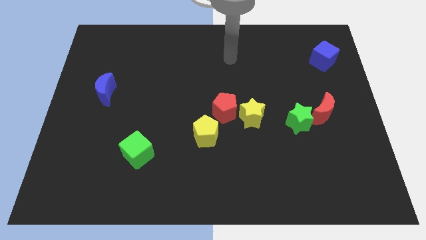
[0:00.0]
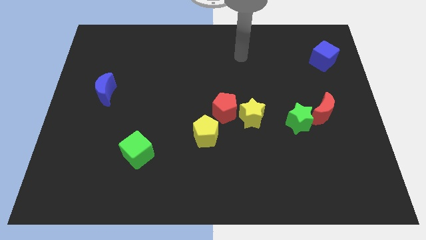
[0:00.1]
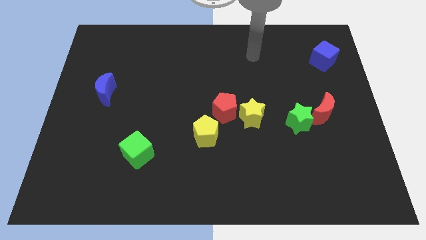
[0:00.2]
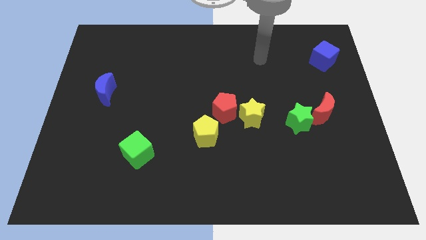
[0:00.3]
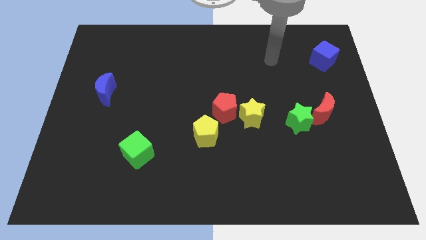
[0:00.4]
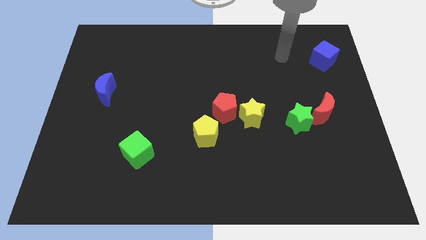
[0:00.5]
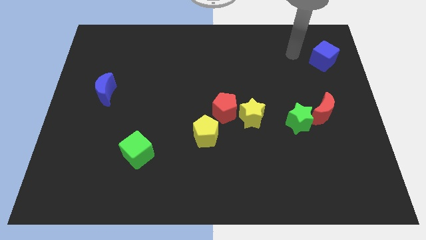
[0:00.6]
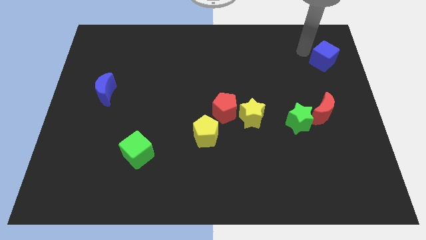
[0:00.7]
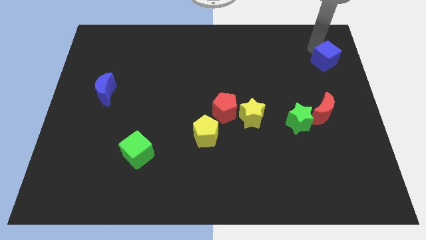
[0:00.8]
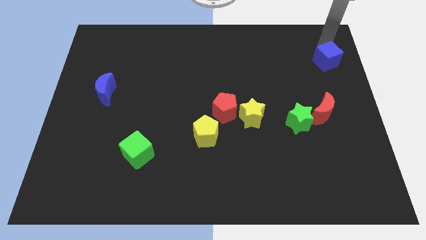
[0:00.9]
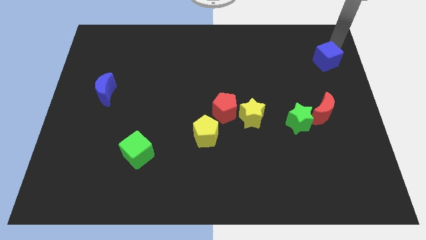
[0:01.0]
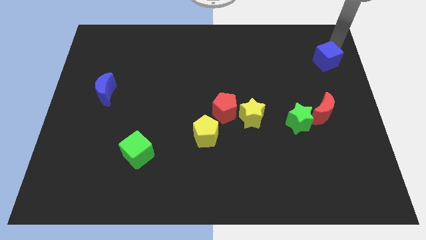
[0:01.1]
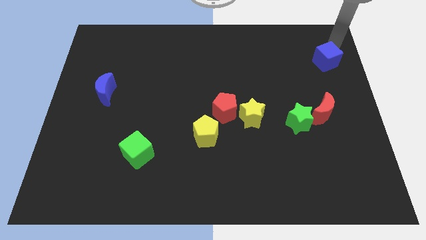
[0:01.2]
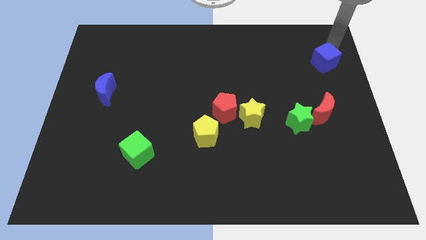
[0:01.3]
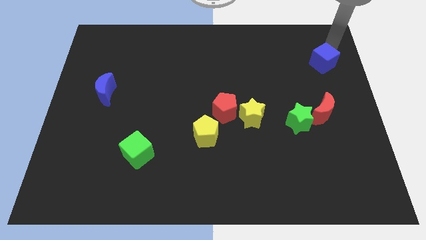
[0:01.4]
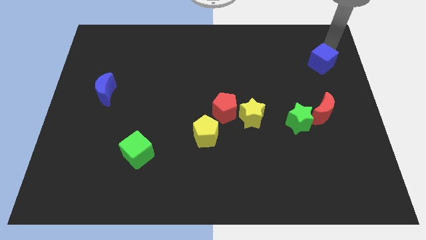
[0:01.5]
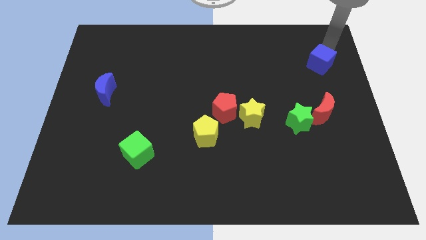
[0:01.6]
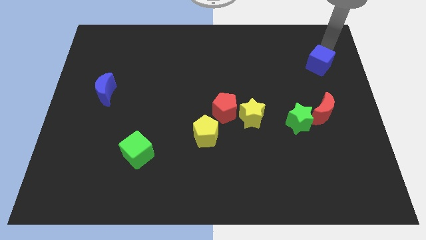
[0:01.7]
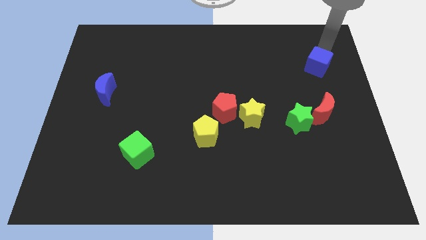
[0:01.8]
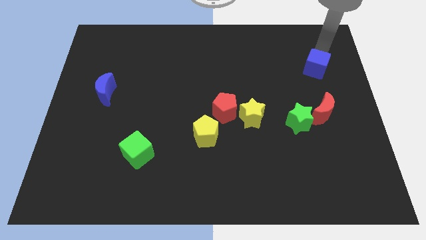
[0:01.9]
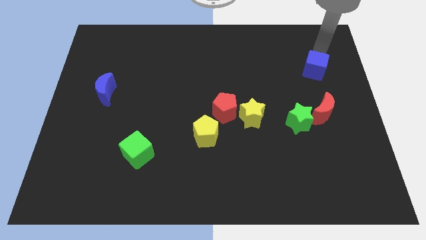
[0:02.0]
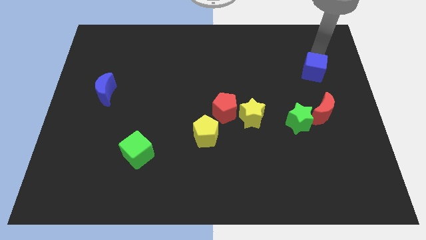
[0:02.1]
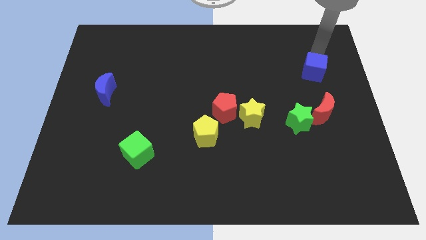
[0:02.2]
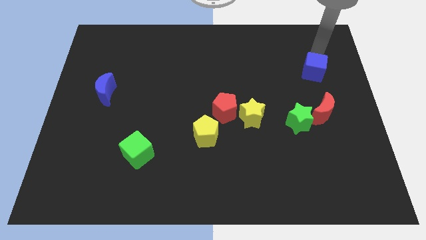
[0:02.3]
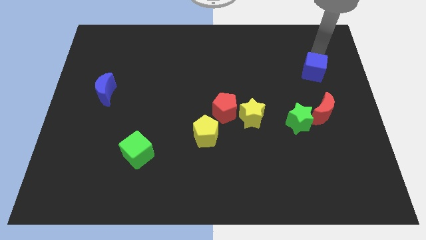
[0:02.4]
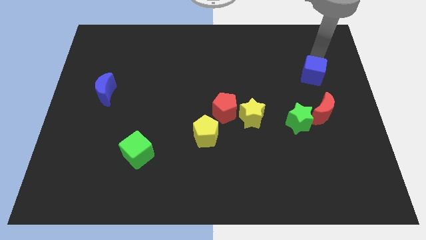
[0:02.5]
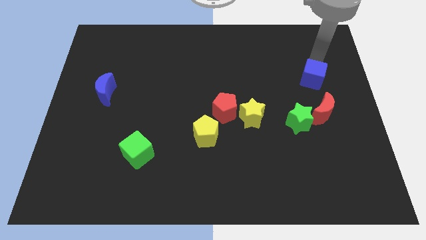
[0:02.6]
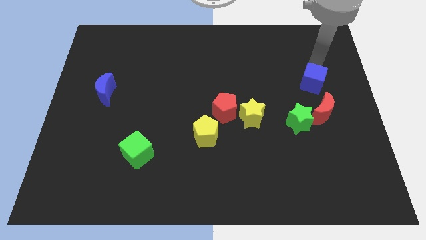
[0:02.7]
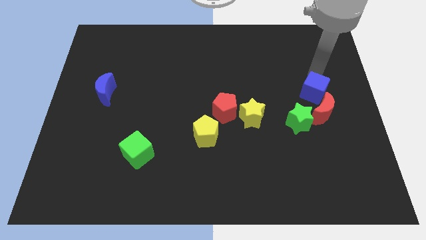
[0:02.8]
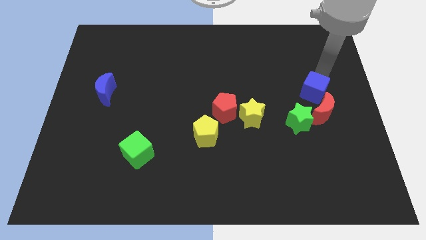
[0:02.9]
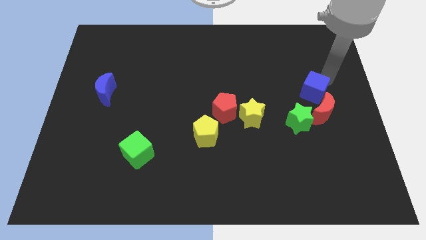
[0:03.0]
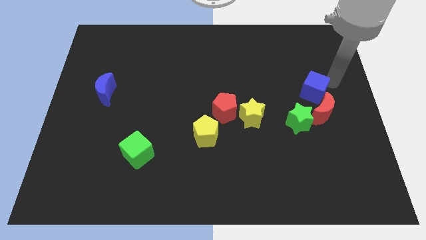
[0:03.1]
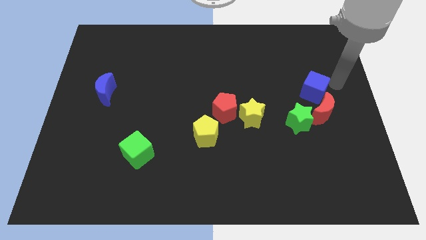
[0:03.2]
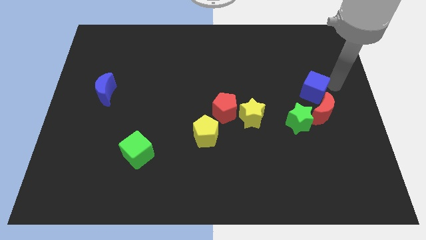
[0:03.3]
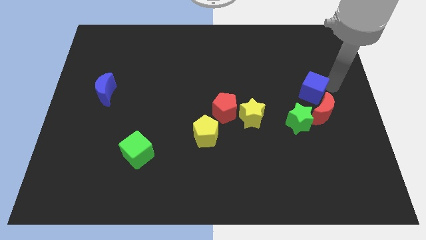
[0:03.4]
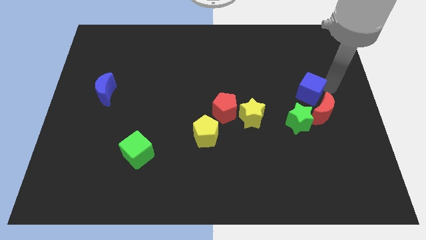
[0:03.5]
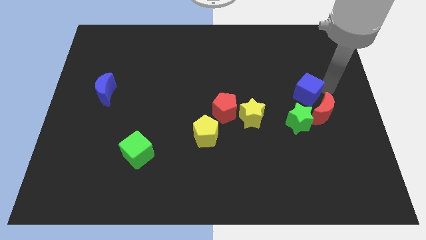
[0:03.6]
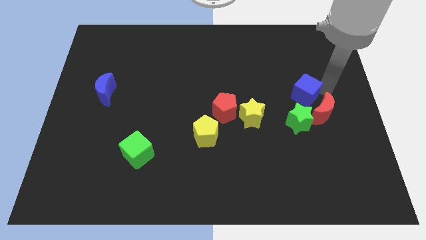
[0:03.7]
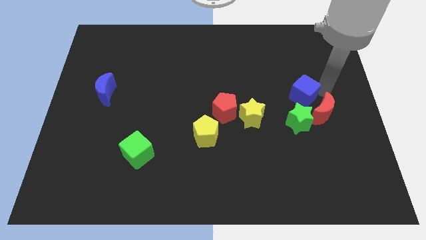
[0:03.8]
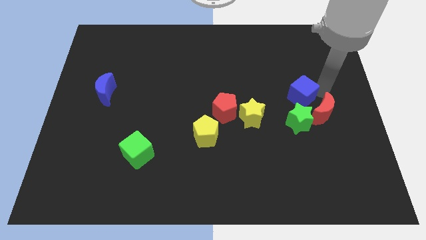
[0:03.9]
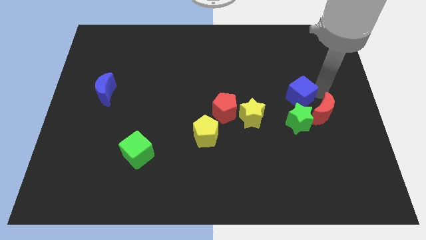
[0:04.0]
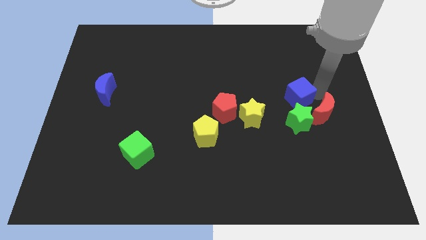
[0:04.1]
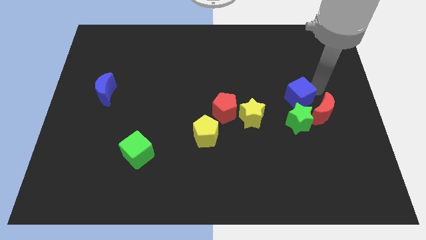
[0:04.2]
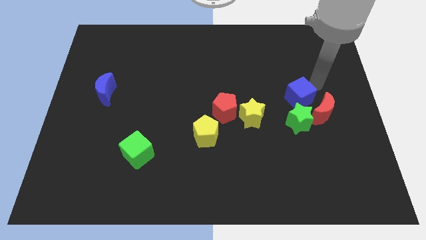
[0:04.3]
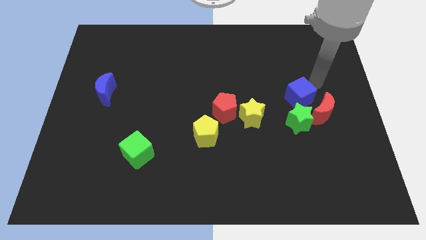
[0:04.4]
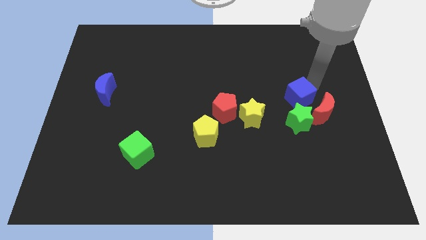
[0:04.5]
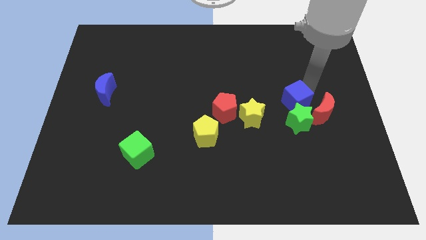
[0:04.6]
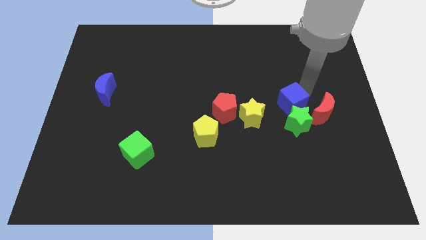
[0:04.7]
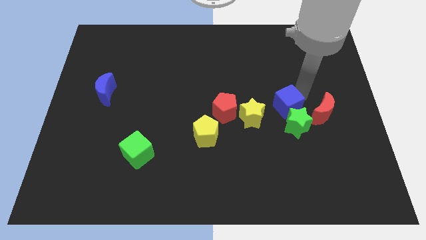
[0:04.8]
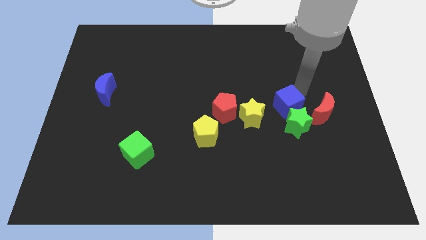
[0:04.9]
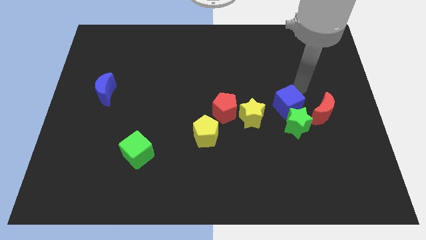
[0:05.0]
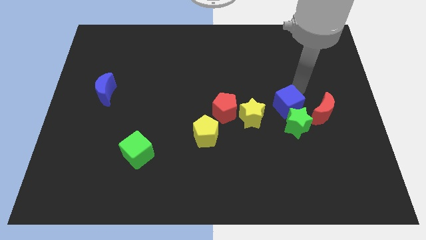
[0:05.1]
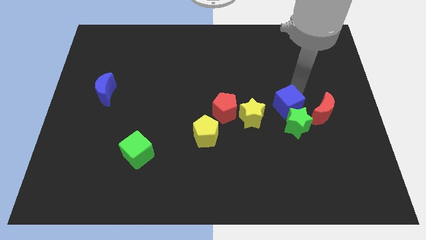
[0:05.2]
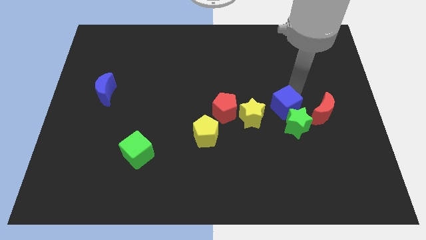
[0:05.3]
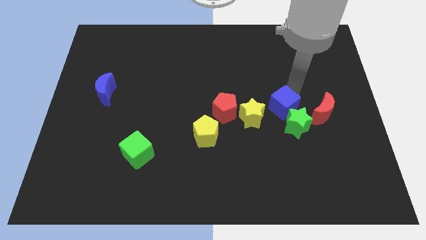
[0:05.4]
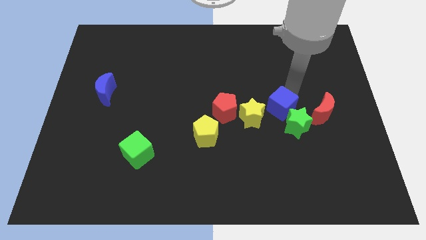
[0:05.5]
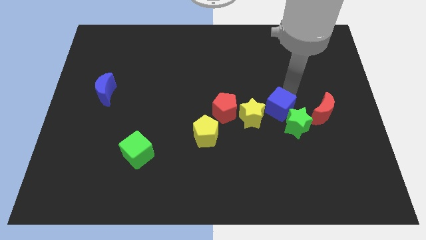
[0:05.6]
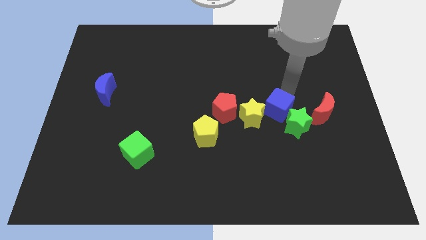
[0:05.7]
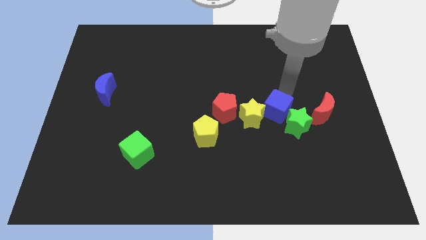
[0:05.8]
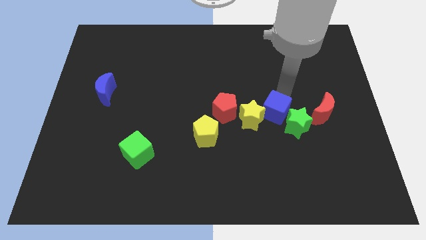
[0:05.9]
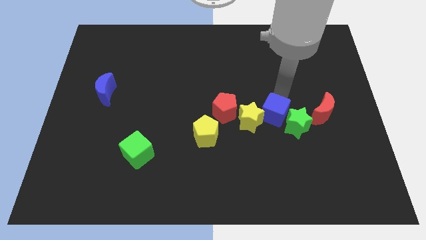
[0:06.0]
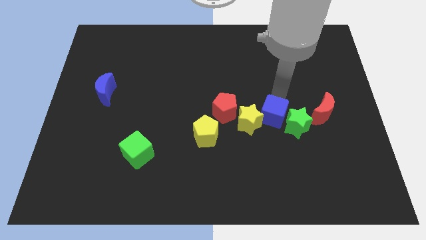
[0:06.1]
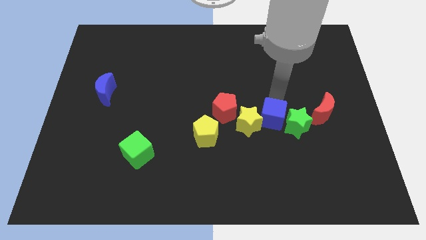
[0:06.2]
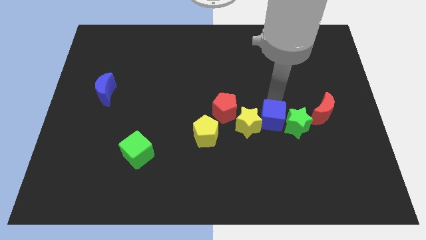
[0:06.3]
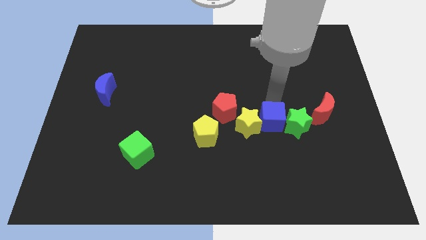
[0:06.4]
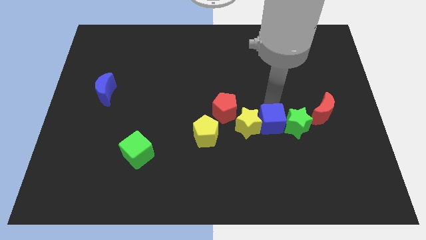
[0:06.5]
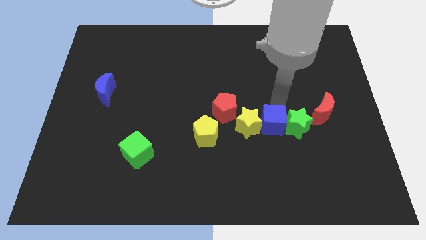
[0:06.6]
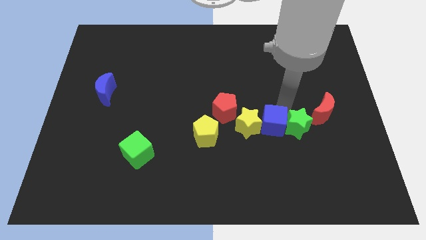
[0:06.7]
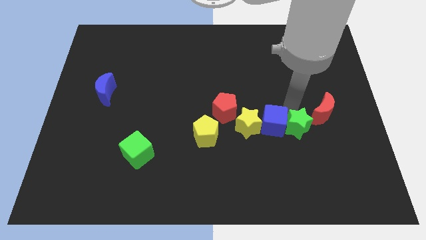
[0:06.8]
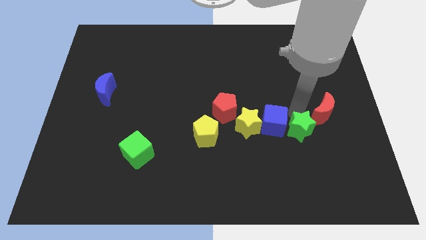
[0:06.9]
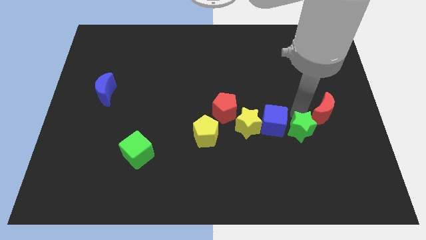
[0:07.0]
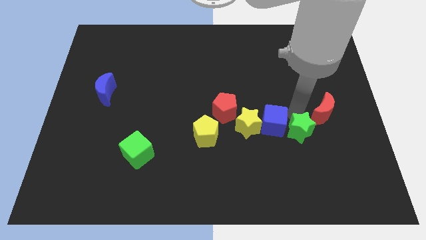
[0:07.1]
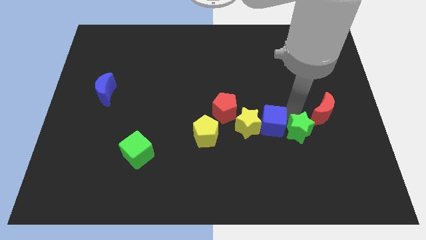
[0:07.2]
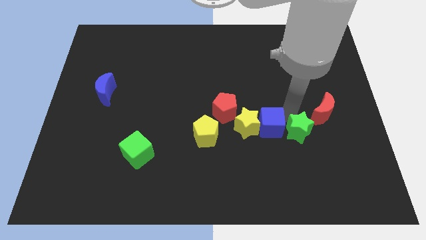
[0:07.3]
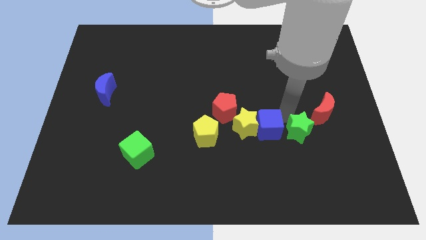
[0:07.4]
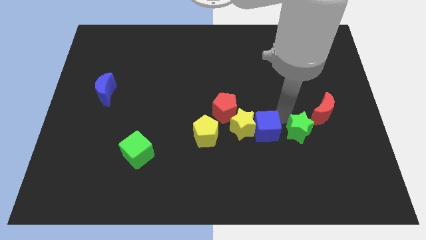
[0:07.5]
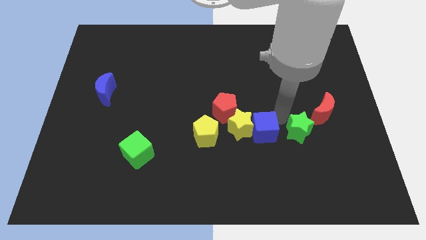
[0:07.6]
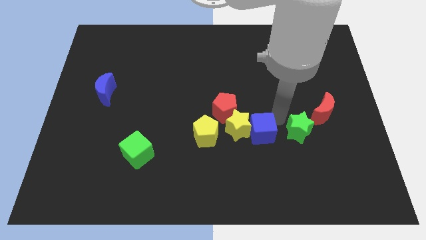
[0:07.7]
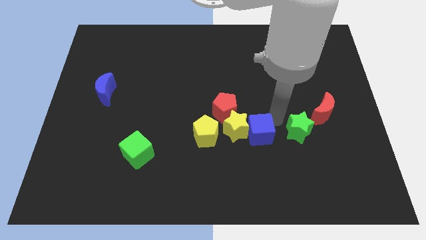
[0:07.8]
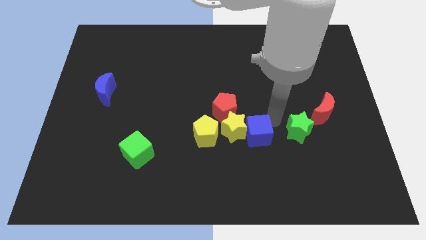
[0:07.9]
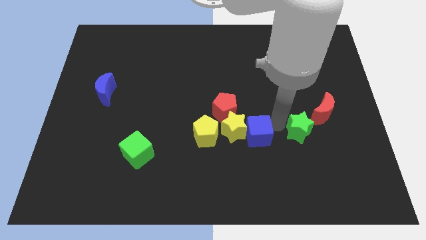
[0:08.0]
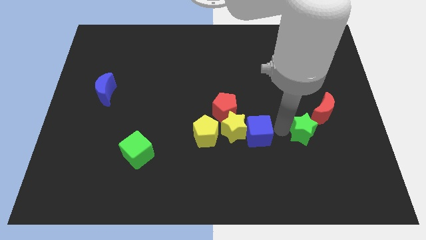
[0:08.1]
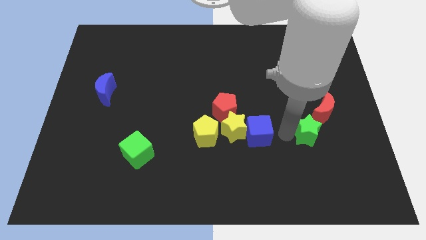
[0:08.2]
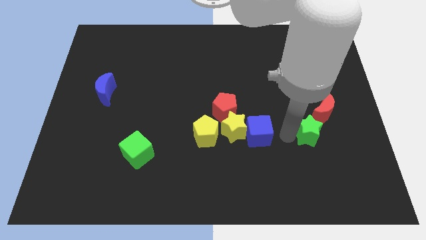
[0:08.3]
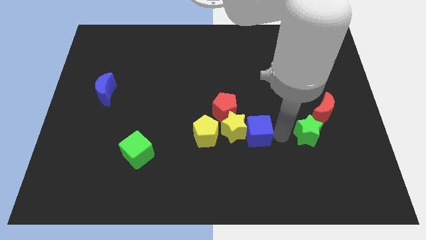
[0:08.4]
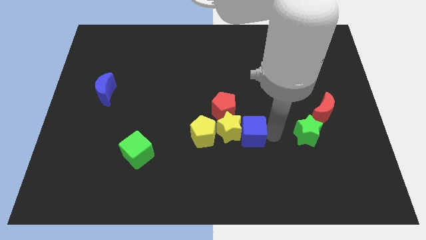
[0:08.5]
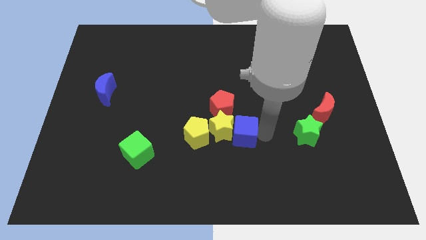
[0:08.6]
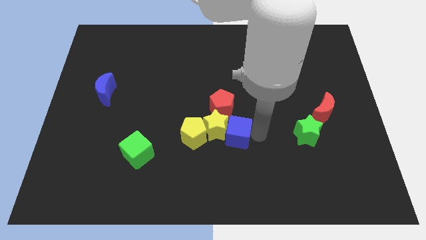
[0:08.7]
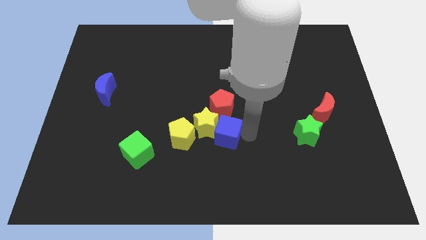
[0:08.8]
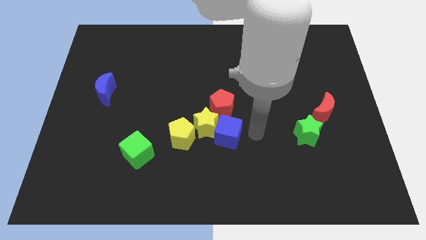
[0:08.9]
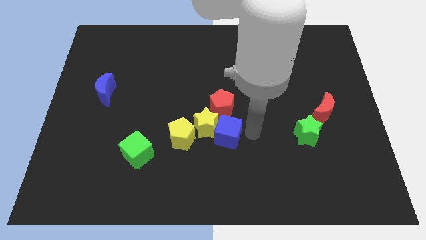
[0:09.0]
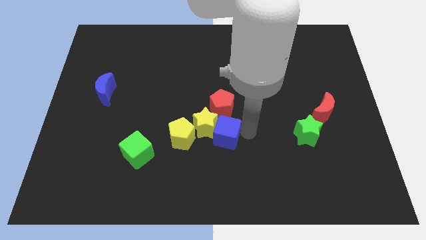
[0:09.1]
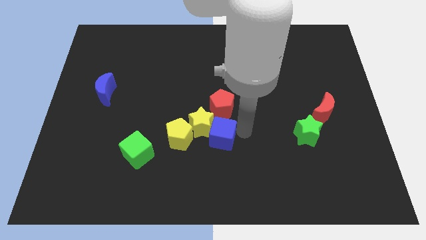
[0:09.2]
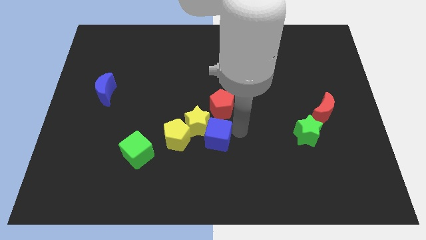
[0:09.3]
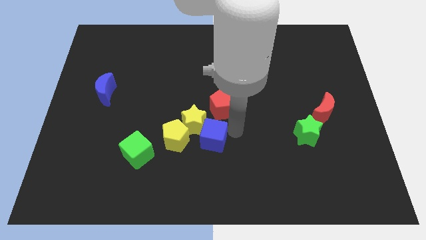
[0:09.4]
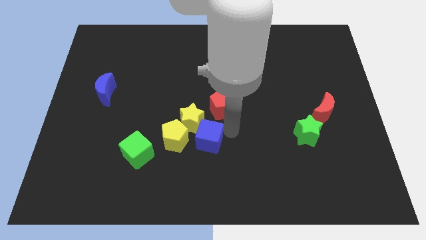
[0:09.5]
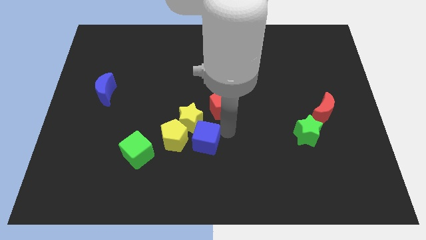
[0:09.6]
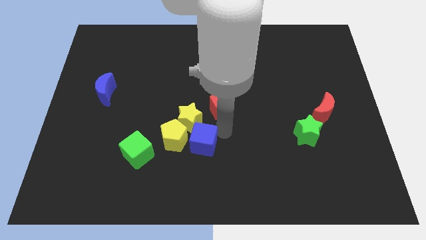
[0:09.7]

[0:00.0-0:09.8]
move the blue cube close to the yellow pentagon
